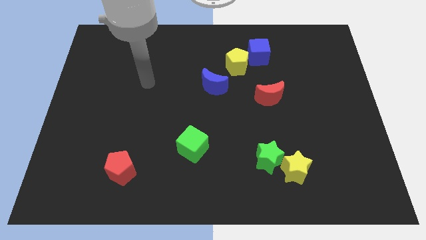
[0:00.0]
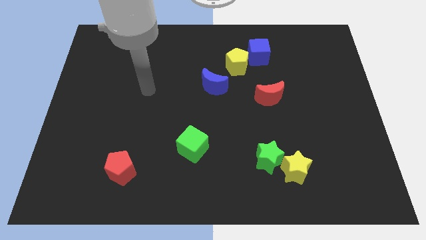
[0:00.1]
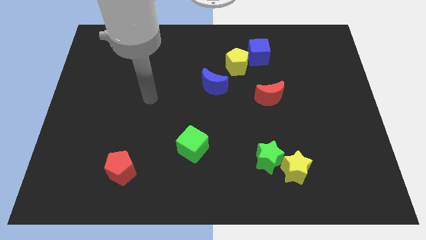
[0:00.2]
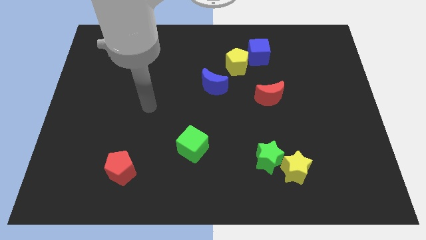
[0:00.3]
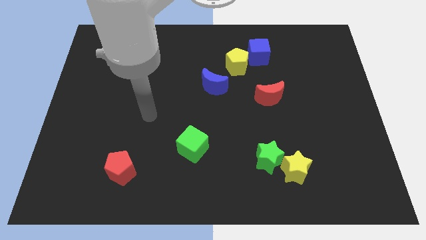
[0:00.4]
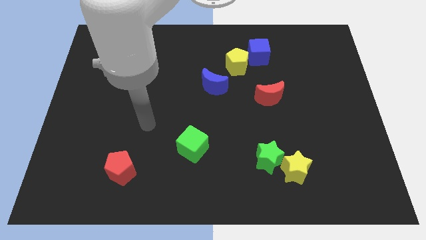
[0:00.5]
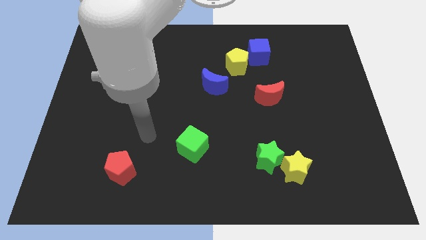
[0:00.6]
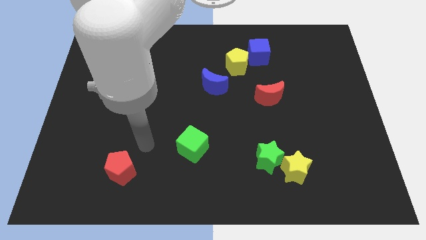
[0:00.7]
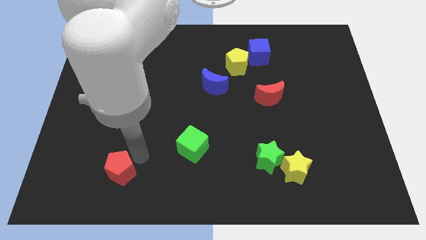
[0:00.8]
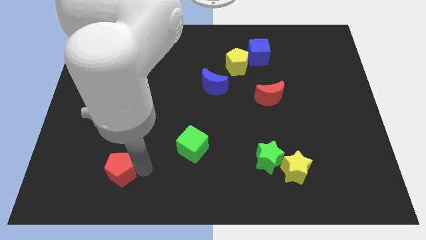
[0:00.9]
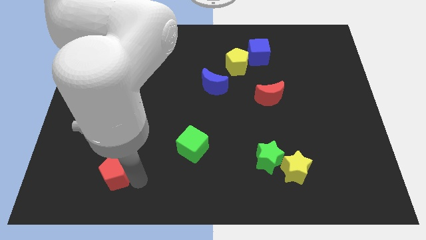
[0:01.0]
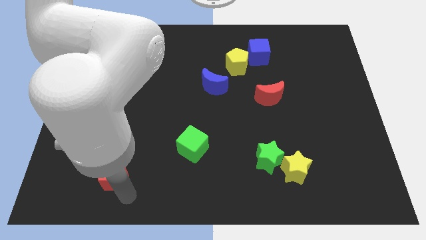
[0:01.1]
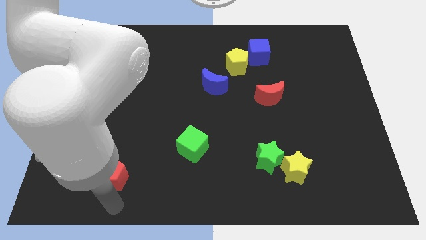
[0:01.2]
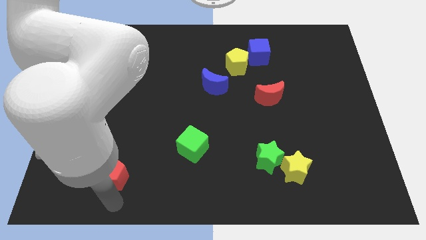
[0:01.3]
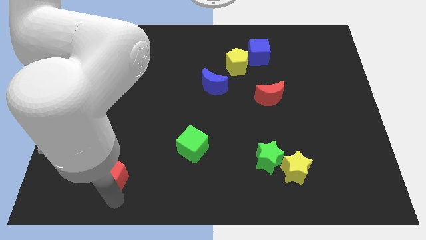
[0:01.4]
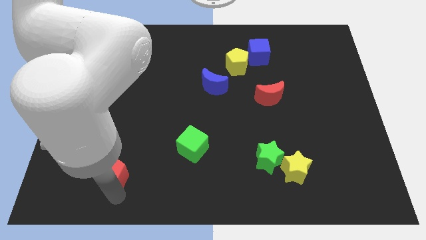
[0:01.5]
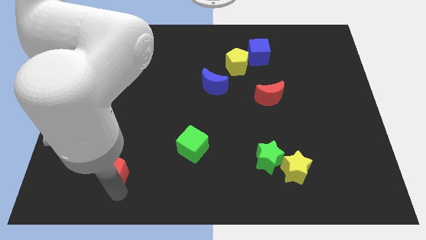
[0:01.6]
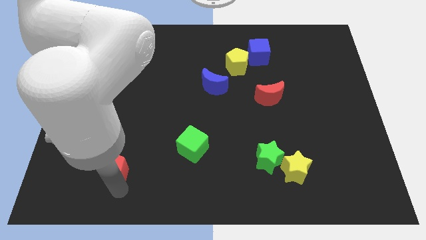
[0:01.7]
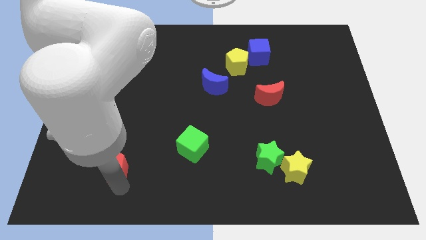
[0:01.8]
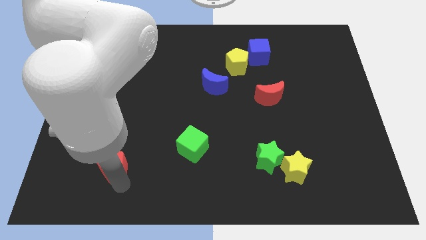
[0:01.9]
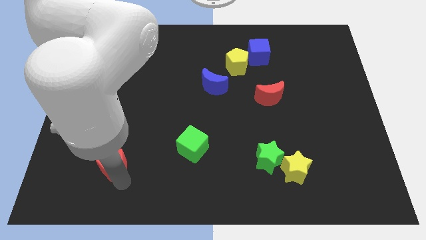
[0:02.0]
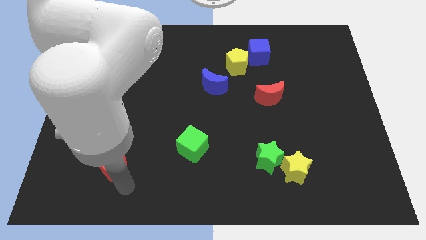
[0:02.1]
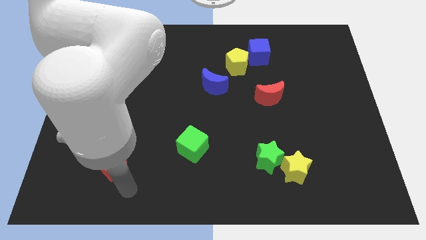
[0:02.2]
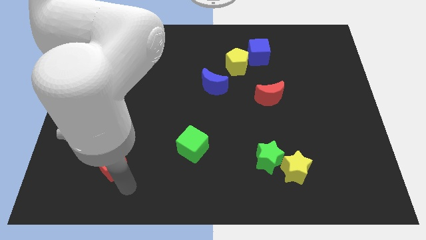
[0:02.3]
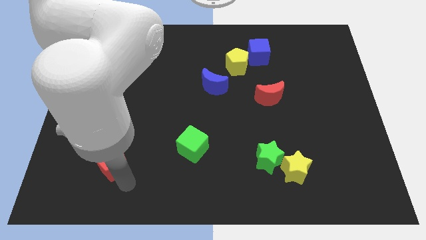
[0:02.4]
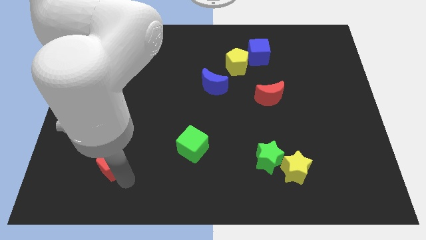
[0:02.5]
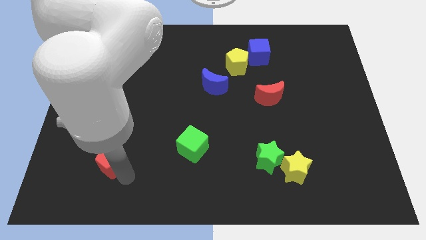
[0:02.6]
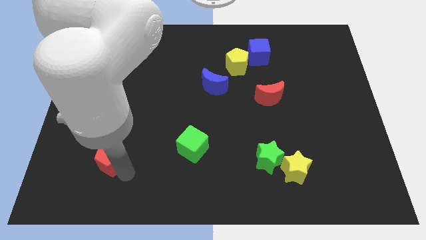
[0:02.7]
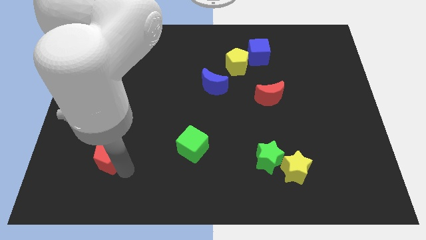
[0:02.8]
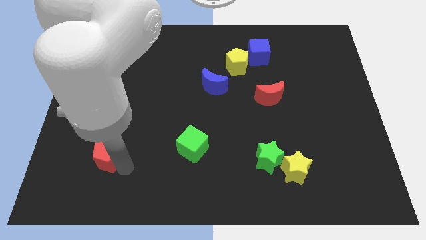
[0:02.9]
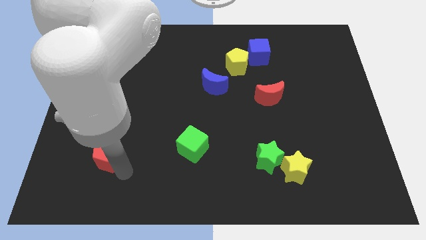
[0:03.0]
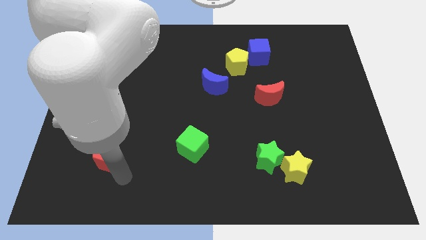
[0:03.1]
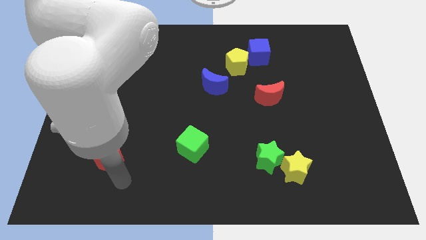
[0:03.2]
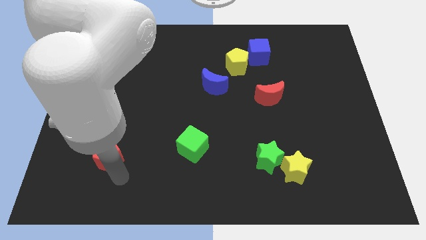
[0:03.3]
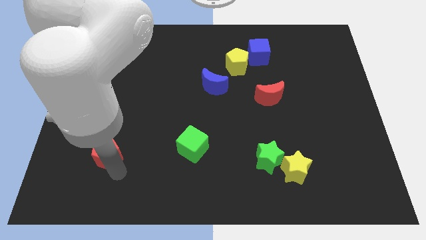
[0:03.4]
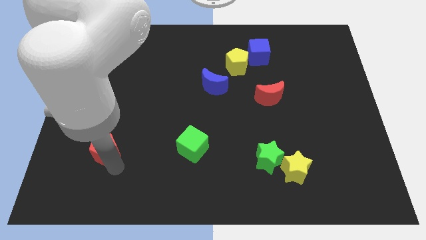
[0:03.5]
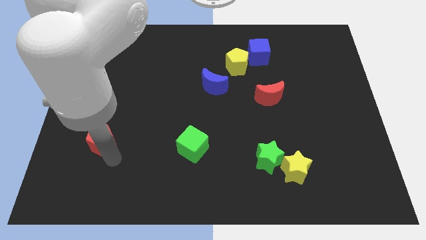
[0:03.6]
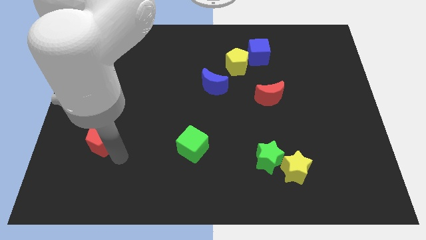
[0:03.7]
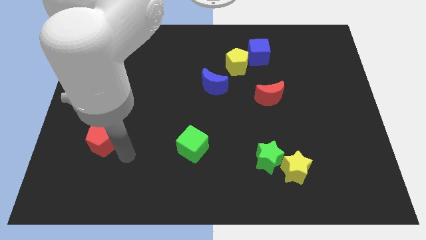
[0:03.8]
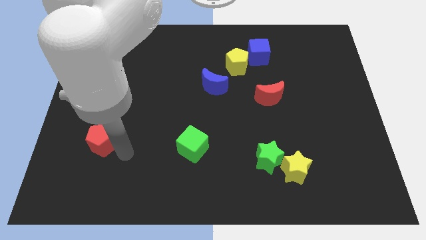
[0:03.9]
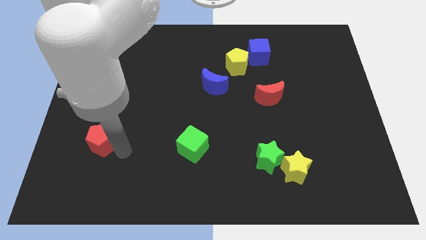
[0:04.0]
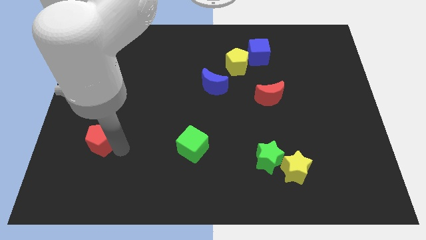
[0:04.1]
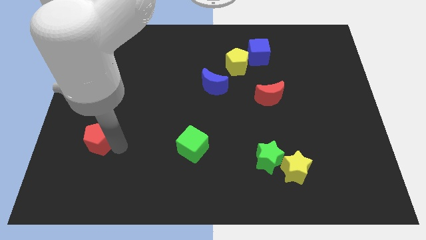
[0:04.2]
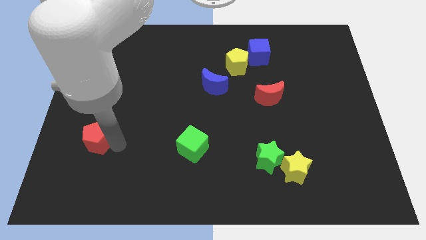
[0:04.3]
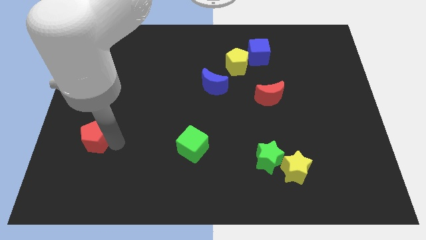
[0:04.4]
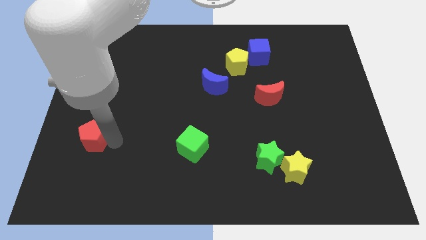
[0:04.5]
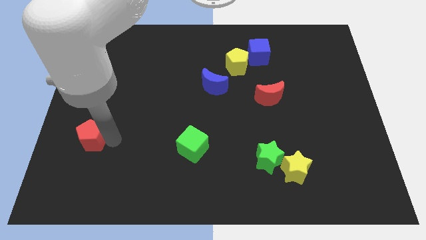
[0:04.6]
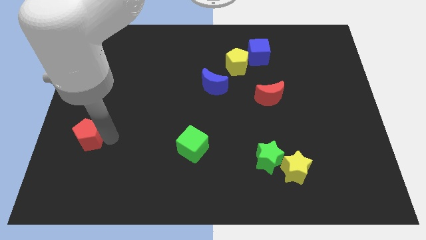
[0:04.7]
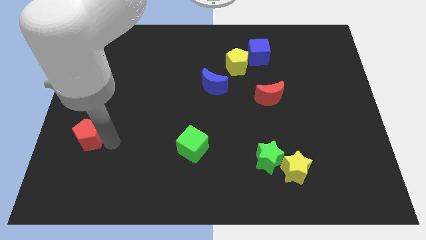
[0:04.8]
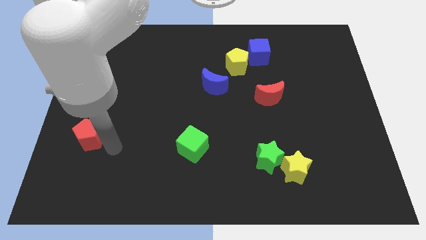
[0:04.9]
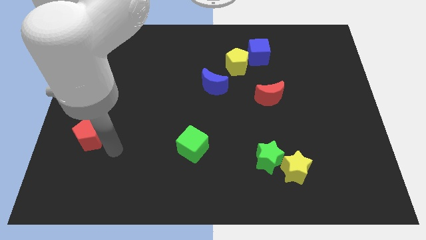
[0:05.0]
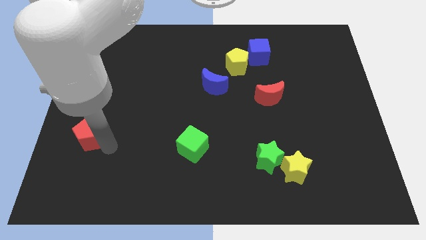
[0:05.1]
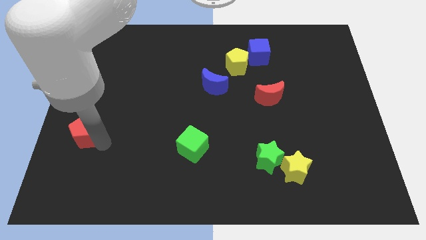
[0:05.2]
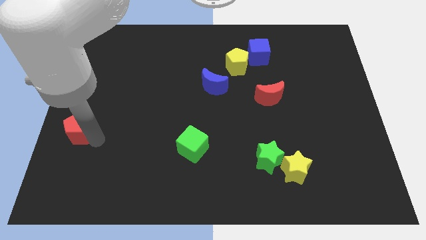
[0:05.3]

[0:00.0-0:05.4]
move the red pentagon to the left side

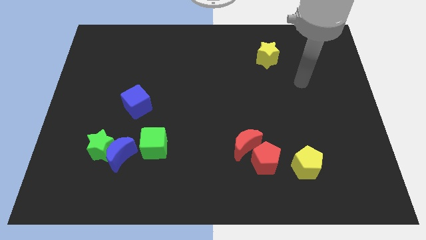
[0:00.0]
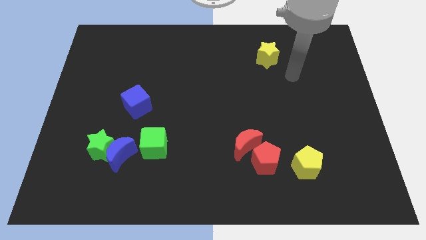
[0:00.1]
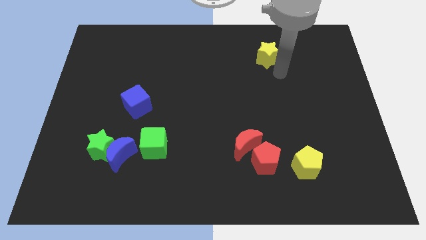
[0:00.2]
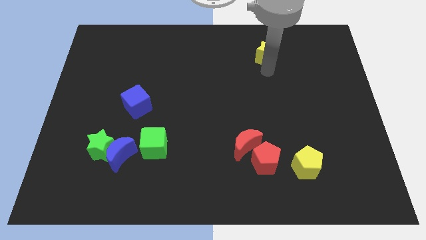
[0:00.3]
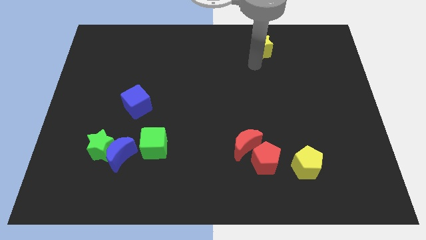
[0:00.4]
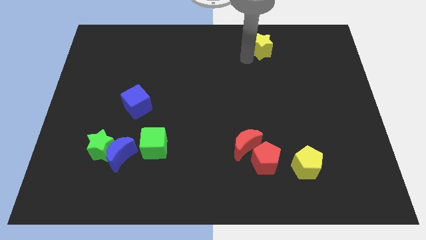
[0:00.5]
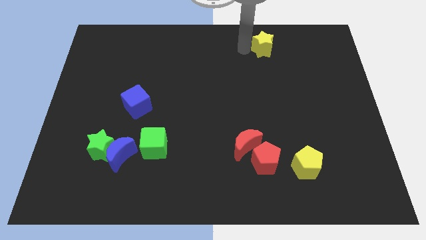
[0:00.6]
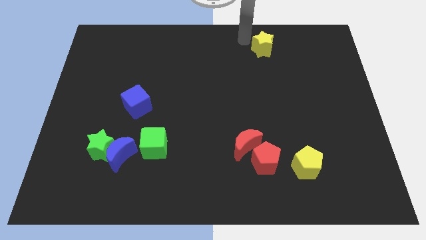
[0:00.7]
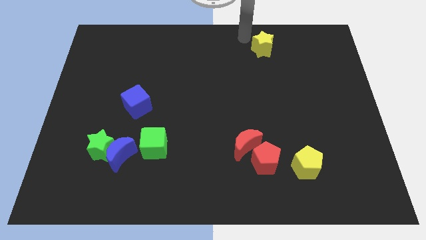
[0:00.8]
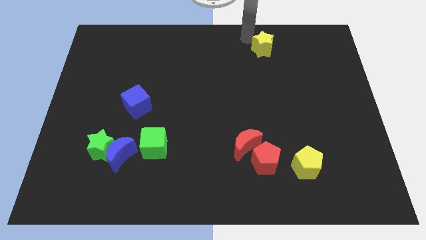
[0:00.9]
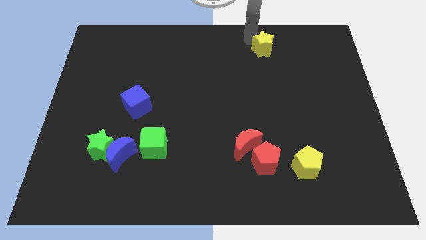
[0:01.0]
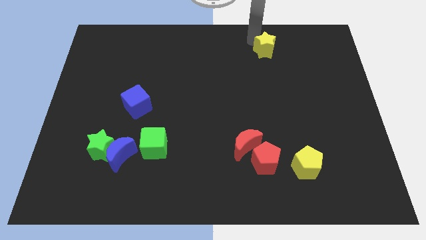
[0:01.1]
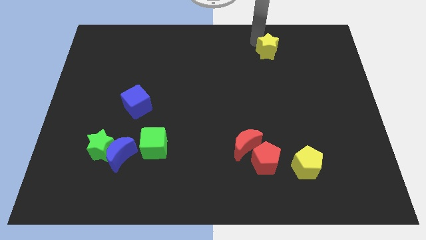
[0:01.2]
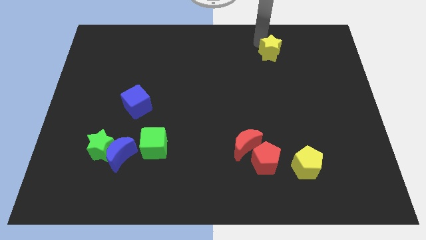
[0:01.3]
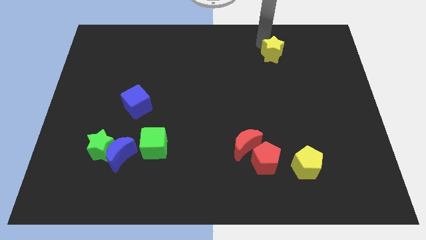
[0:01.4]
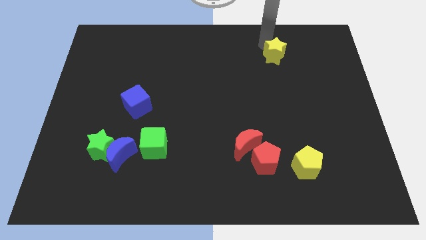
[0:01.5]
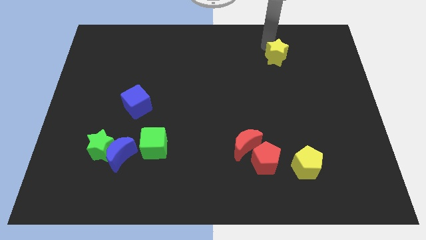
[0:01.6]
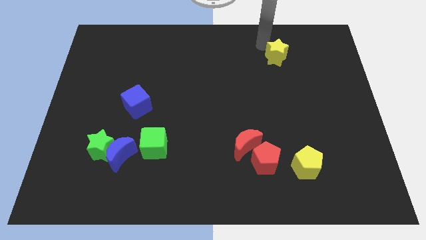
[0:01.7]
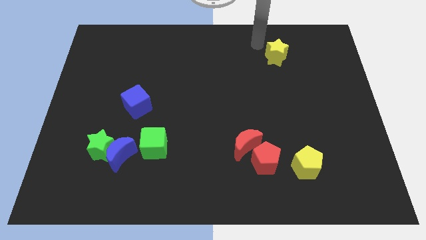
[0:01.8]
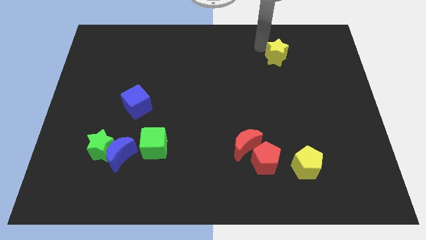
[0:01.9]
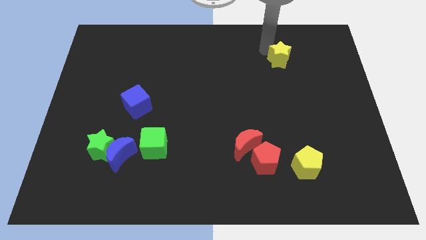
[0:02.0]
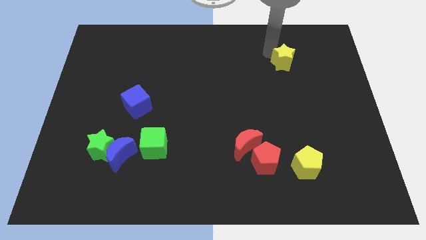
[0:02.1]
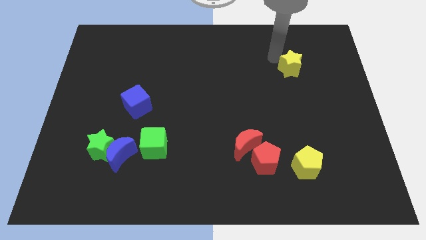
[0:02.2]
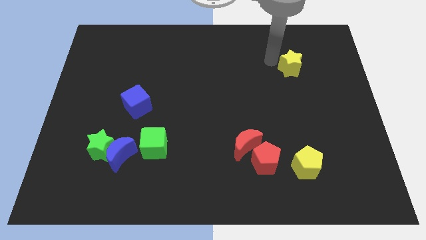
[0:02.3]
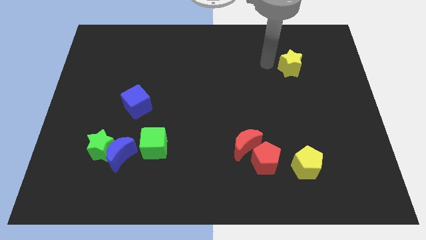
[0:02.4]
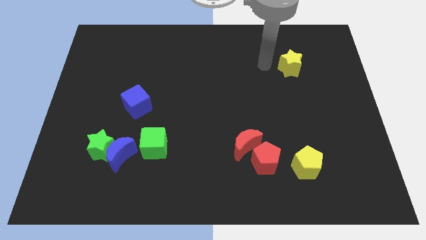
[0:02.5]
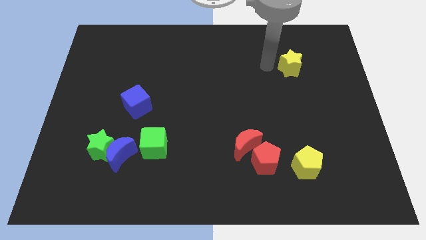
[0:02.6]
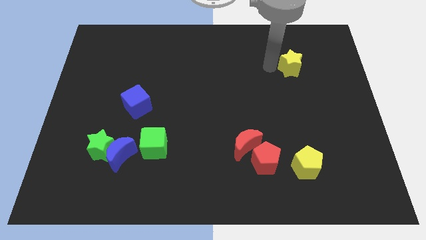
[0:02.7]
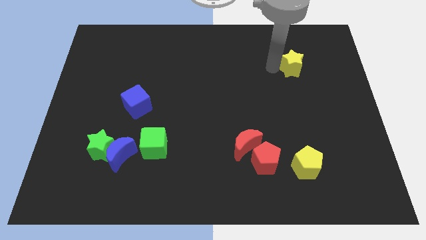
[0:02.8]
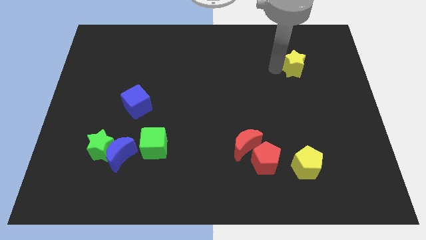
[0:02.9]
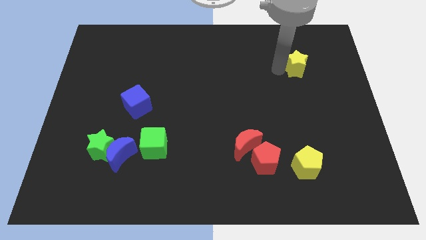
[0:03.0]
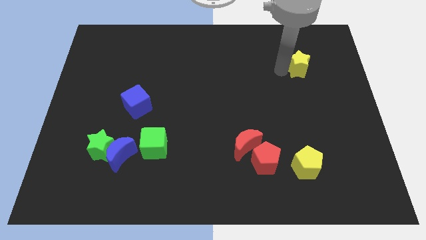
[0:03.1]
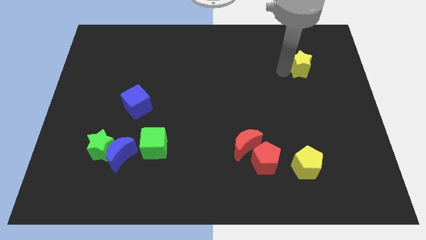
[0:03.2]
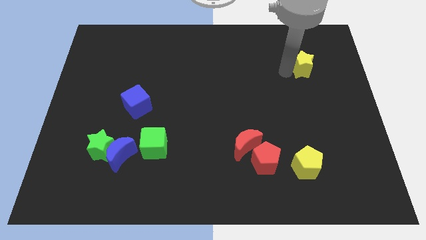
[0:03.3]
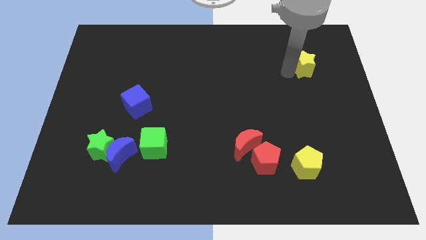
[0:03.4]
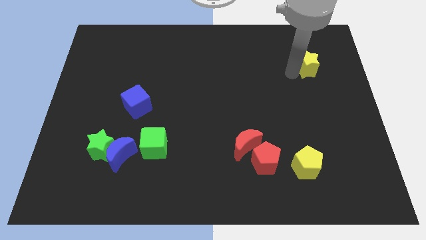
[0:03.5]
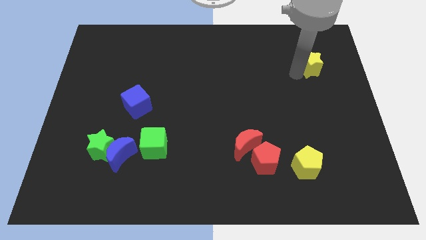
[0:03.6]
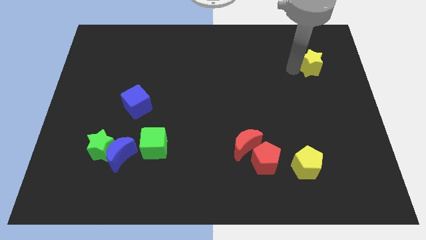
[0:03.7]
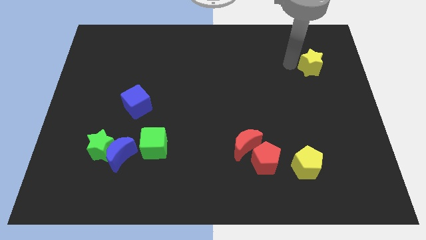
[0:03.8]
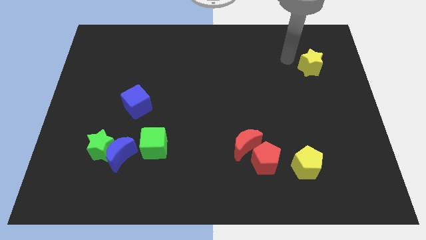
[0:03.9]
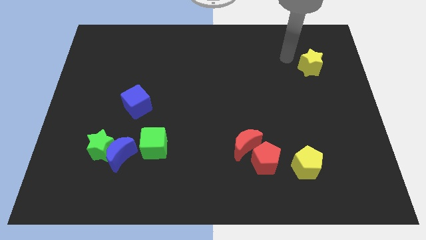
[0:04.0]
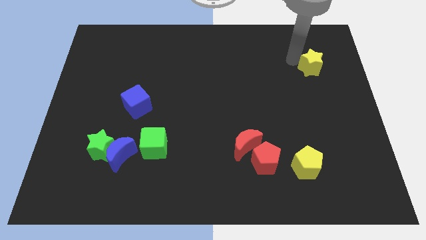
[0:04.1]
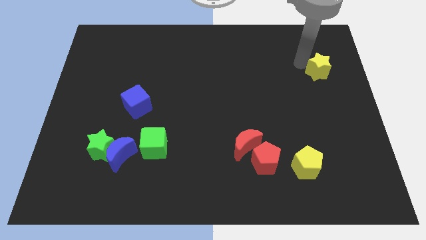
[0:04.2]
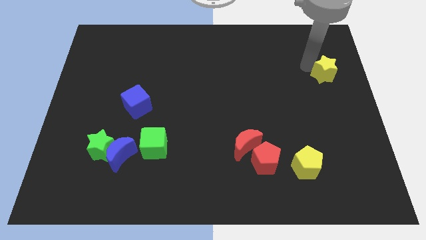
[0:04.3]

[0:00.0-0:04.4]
slide the yellow star to the center right
